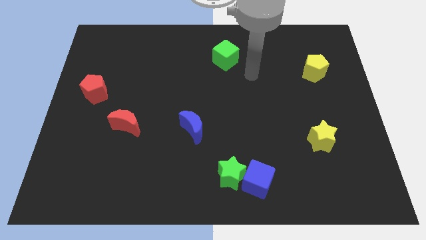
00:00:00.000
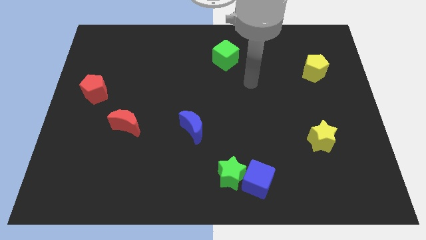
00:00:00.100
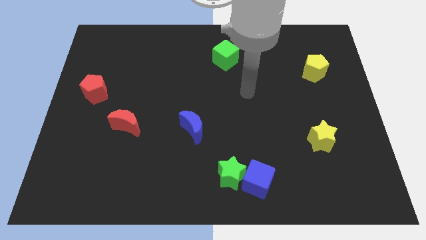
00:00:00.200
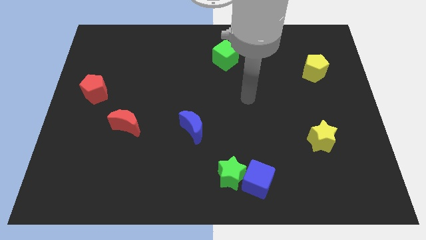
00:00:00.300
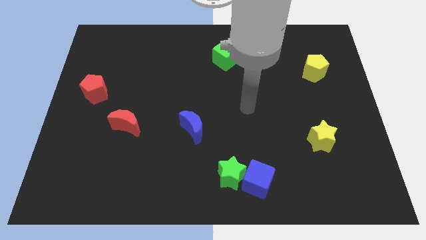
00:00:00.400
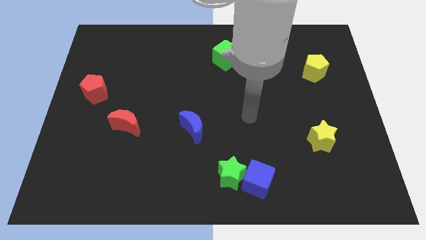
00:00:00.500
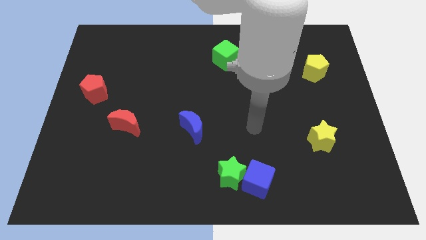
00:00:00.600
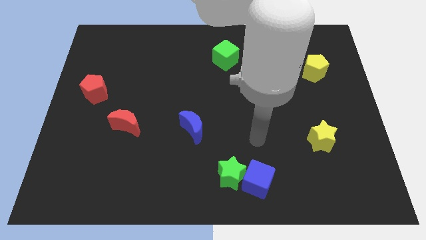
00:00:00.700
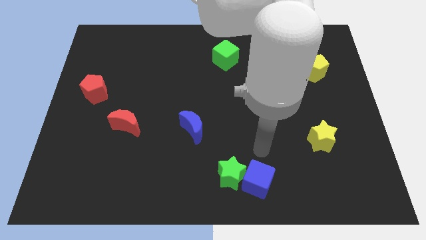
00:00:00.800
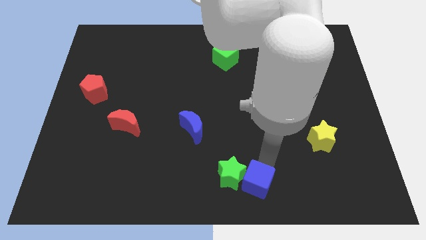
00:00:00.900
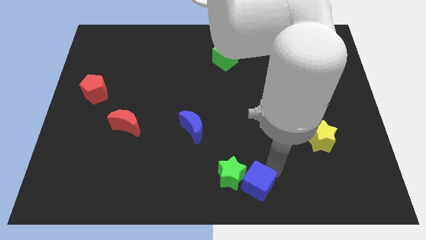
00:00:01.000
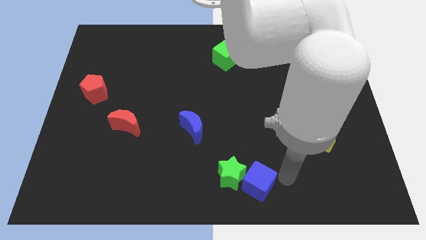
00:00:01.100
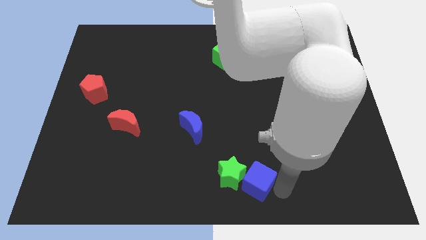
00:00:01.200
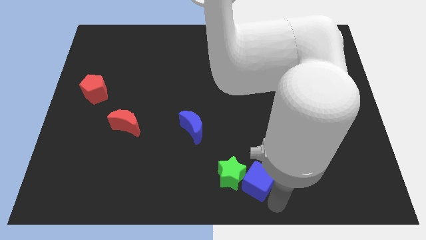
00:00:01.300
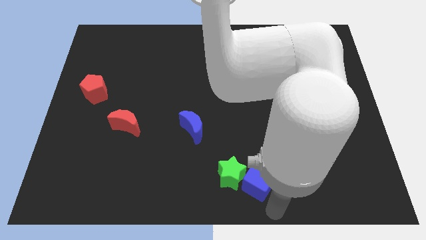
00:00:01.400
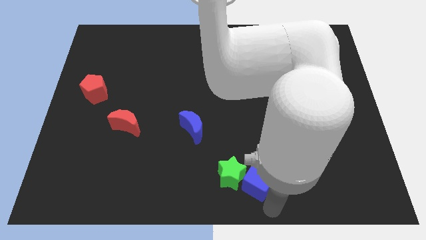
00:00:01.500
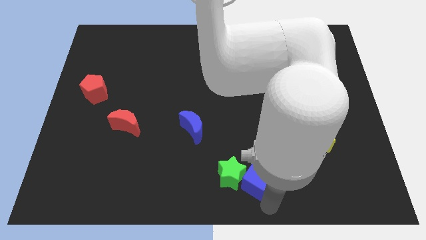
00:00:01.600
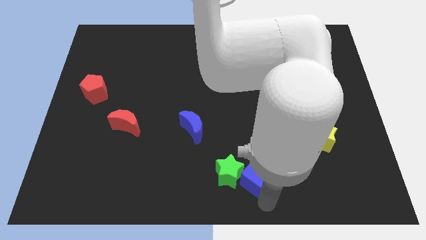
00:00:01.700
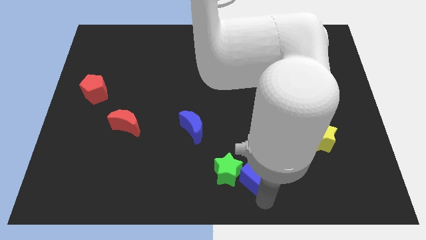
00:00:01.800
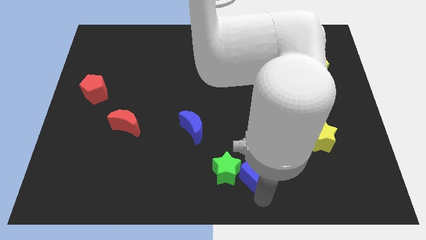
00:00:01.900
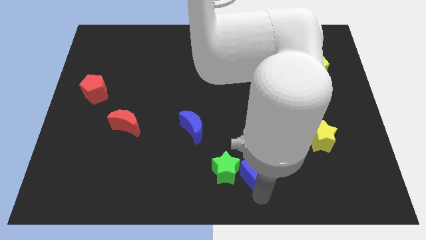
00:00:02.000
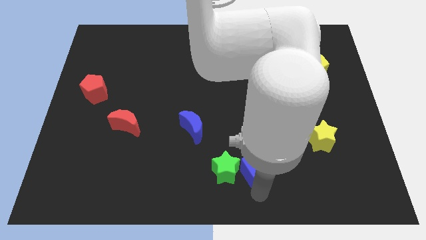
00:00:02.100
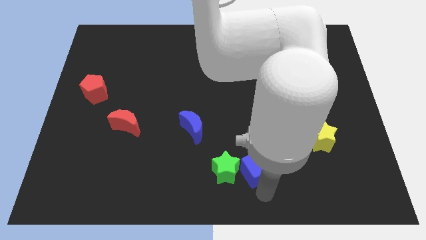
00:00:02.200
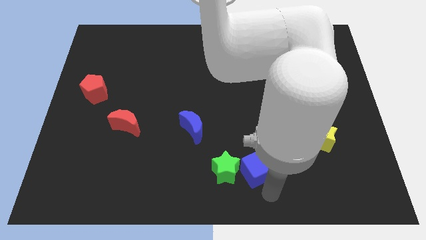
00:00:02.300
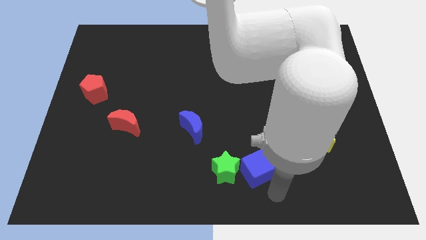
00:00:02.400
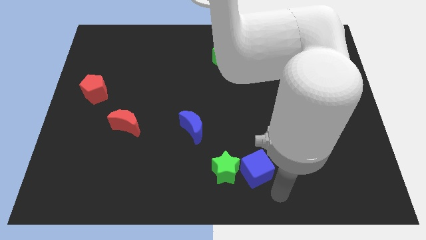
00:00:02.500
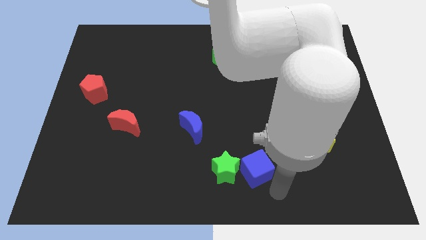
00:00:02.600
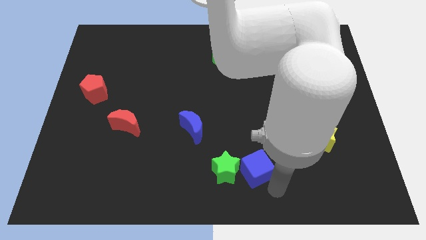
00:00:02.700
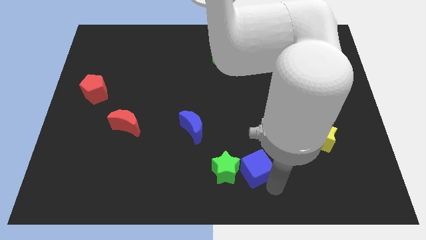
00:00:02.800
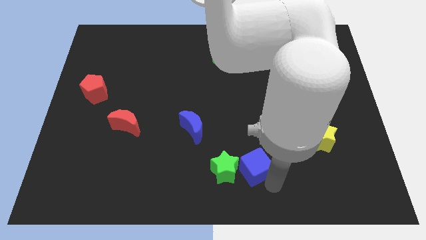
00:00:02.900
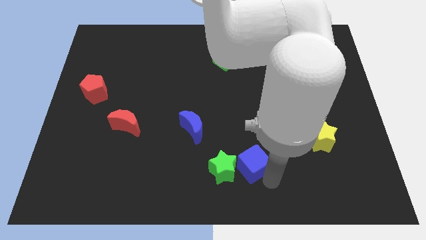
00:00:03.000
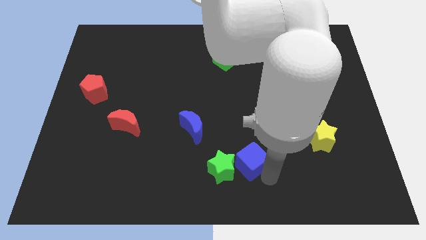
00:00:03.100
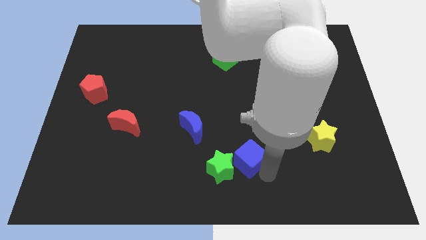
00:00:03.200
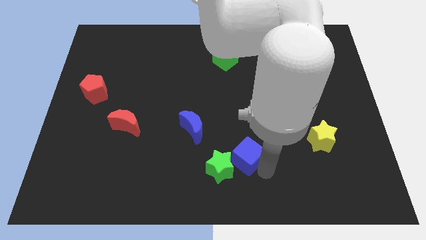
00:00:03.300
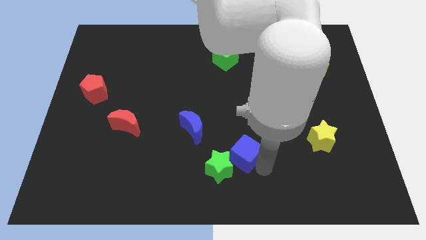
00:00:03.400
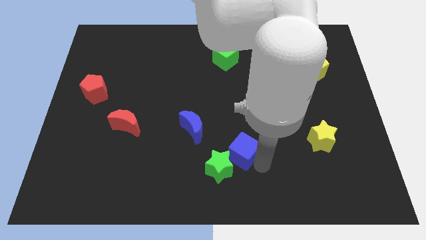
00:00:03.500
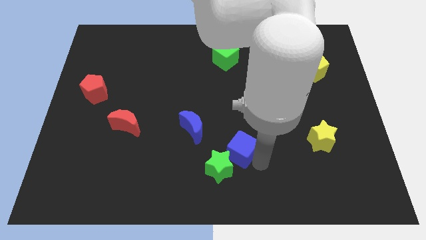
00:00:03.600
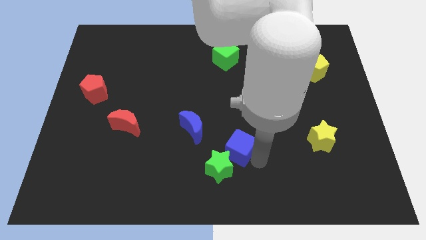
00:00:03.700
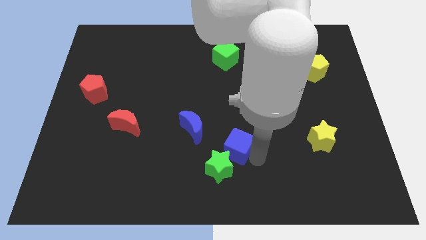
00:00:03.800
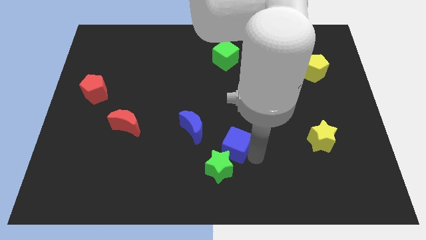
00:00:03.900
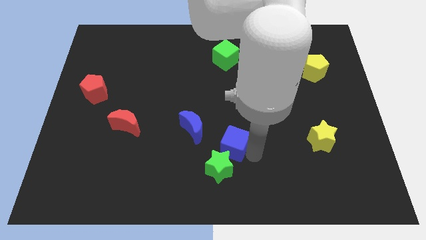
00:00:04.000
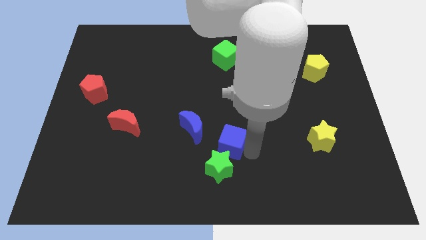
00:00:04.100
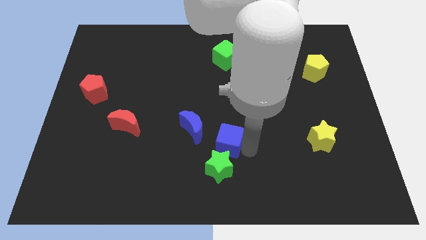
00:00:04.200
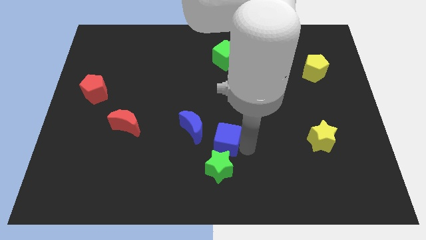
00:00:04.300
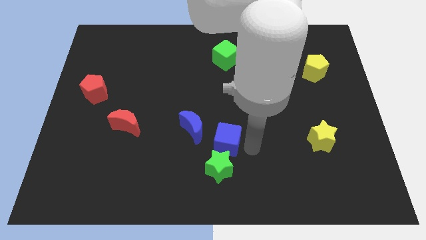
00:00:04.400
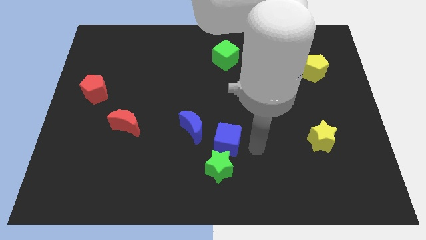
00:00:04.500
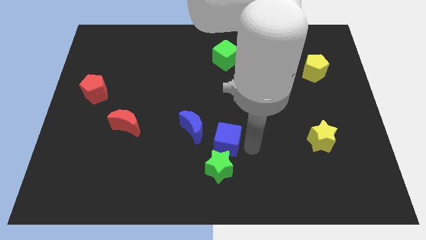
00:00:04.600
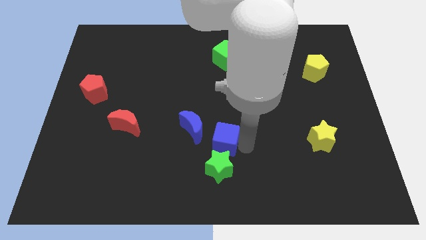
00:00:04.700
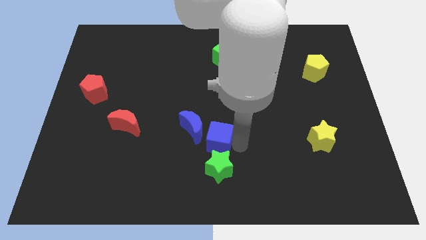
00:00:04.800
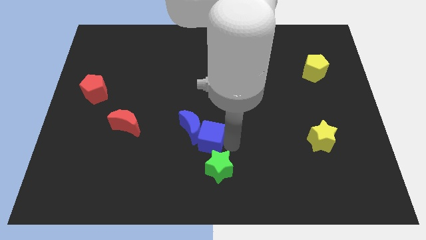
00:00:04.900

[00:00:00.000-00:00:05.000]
put the blue cube towards the blue moon

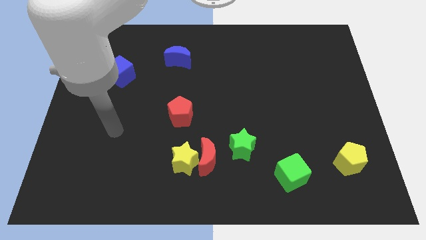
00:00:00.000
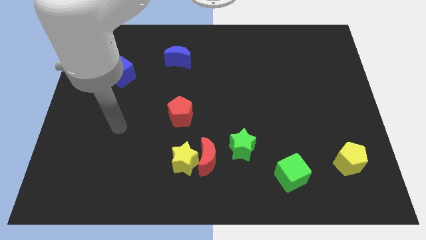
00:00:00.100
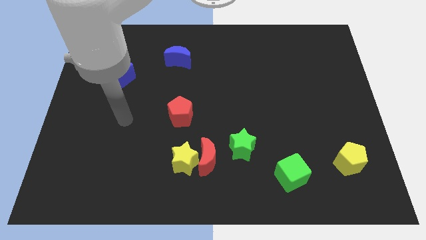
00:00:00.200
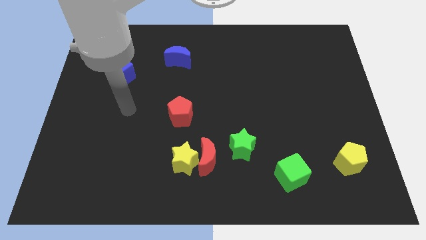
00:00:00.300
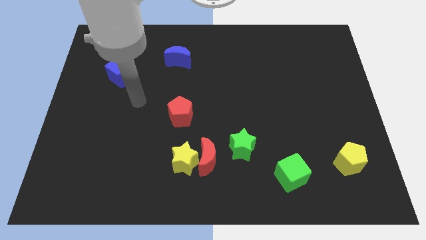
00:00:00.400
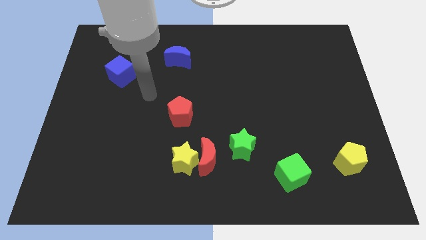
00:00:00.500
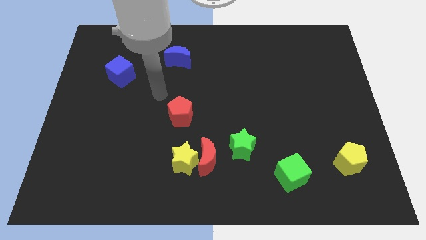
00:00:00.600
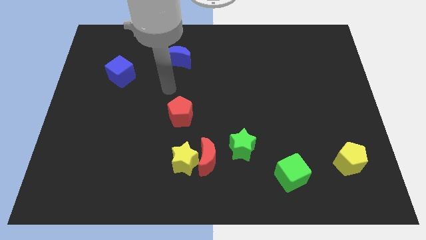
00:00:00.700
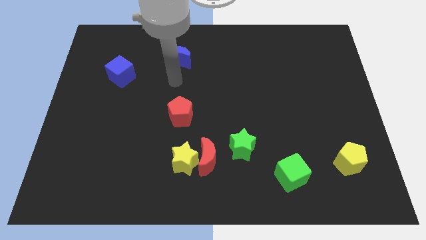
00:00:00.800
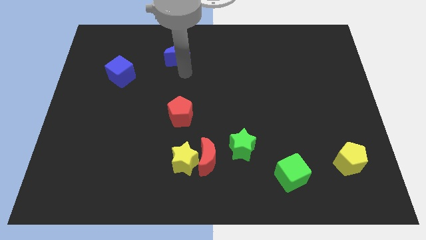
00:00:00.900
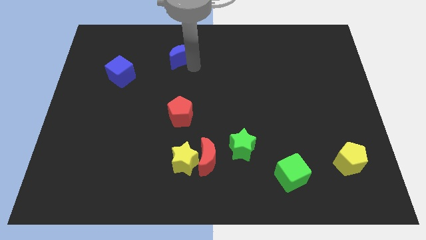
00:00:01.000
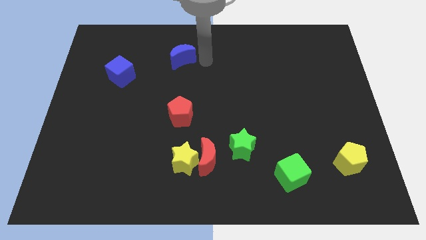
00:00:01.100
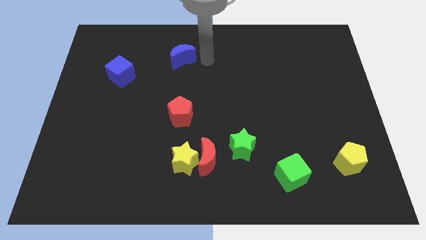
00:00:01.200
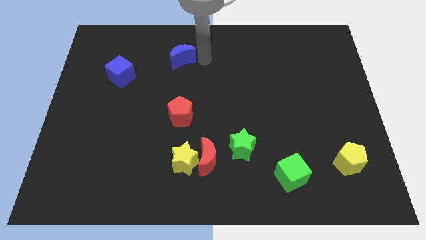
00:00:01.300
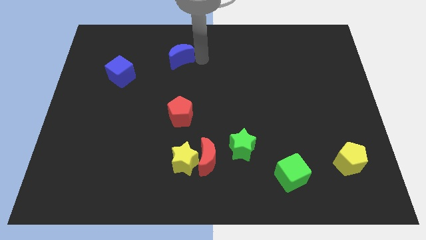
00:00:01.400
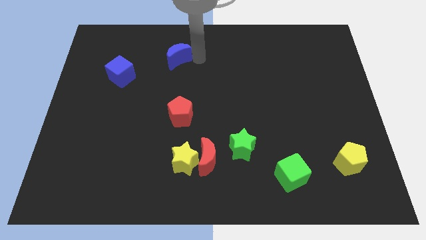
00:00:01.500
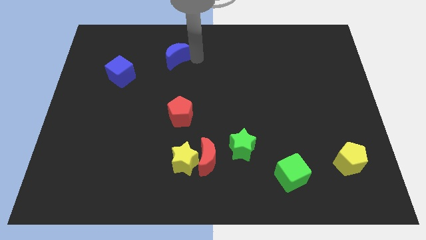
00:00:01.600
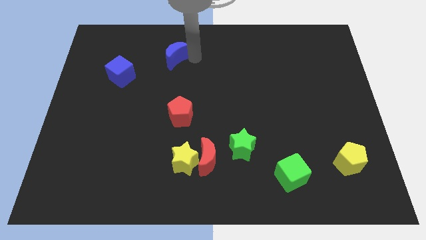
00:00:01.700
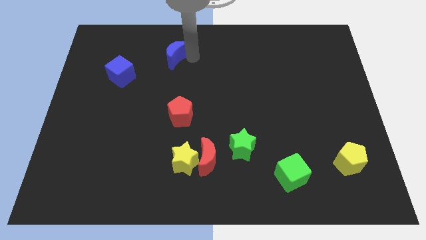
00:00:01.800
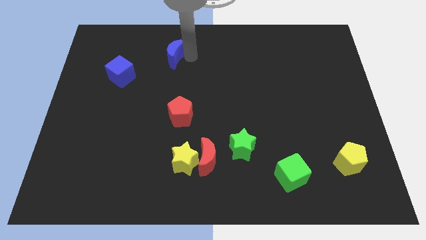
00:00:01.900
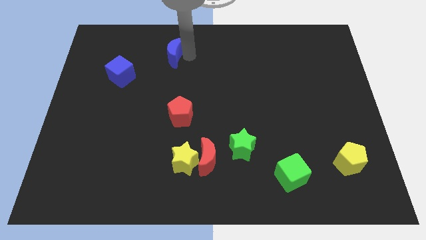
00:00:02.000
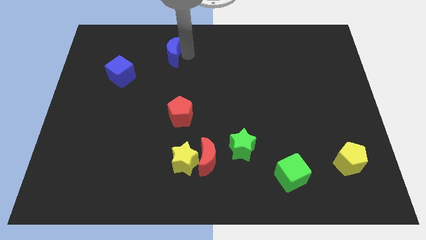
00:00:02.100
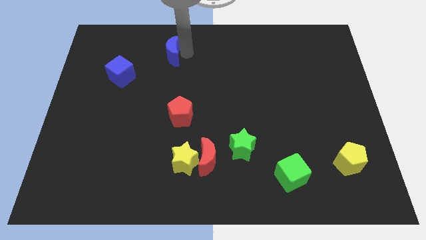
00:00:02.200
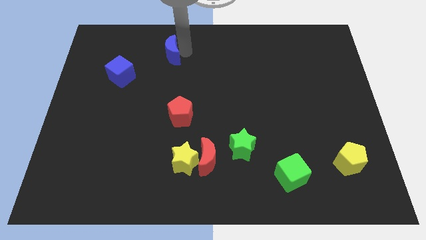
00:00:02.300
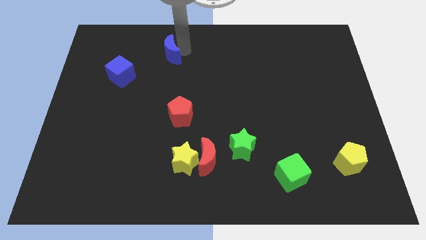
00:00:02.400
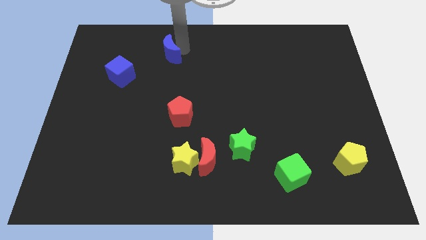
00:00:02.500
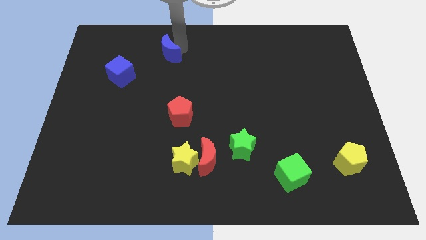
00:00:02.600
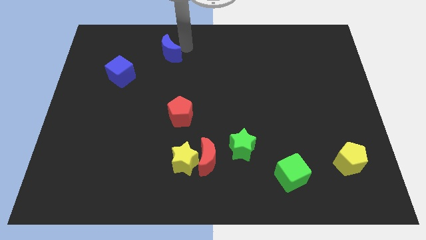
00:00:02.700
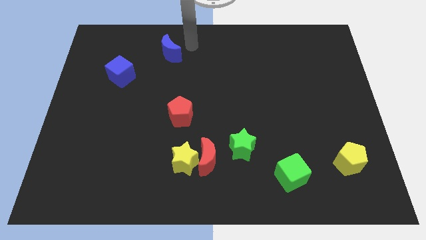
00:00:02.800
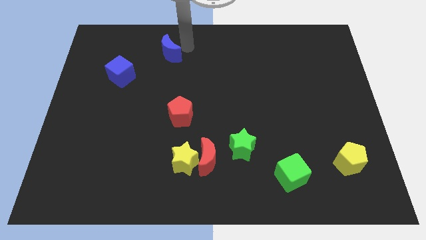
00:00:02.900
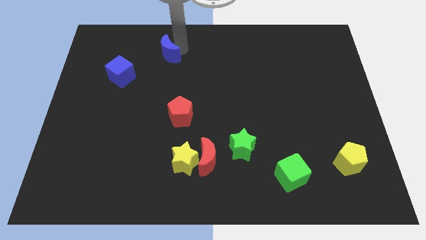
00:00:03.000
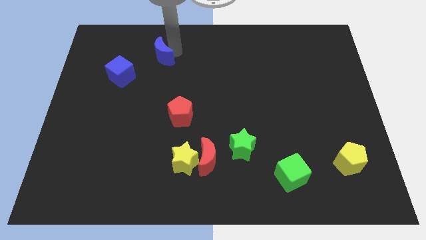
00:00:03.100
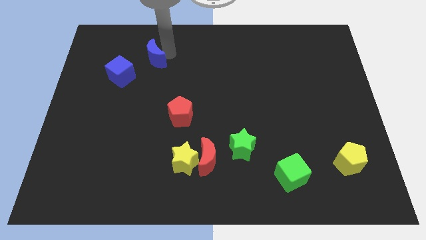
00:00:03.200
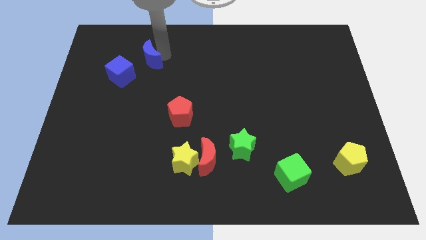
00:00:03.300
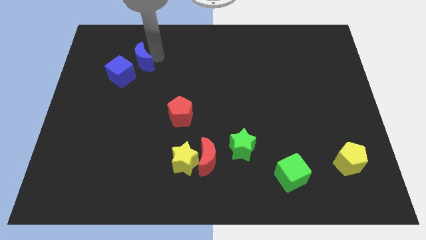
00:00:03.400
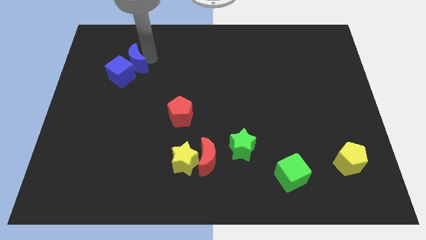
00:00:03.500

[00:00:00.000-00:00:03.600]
put the blue moon close to the blue cube
